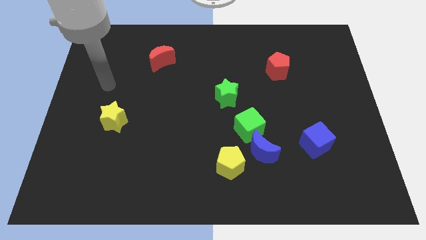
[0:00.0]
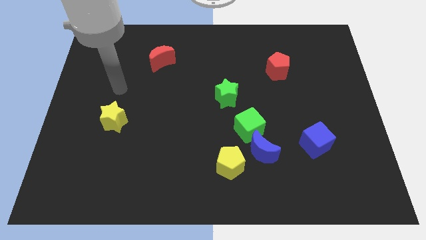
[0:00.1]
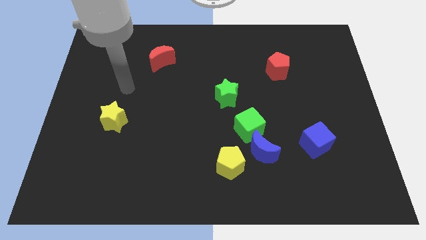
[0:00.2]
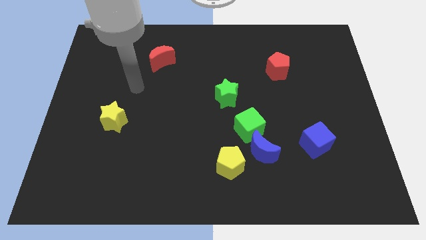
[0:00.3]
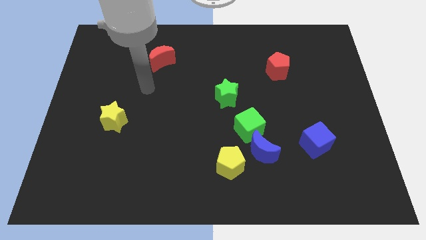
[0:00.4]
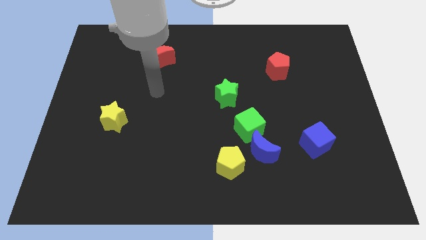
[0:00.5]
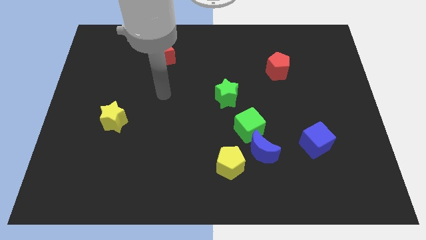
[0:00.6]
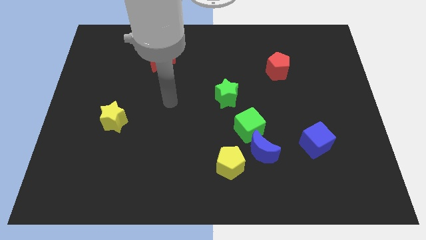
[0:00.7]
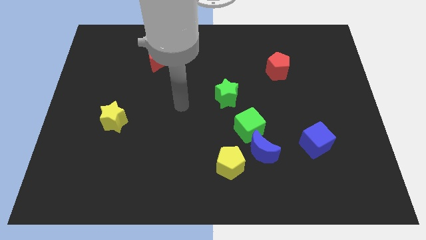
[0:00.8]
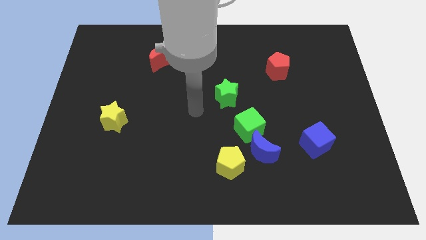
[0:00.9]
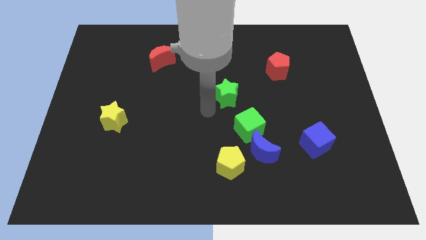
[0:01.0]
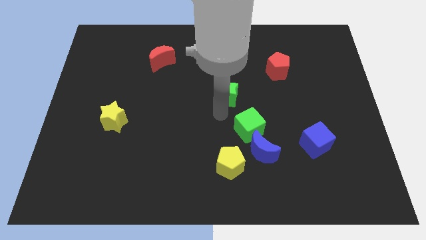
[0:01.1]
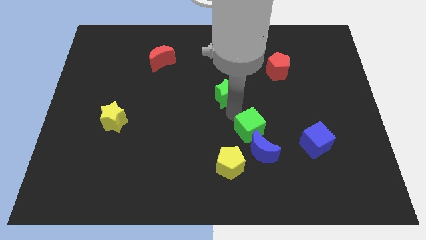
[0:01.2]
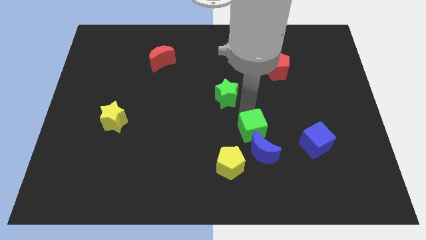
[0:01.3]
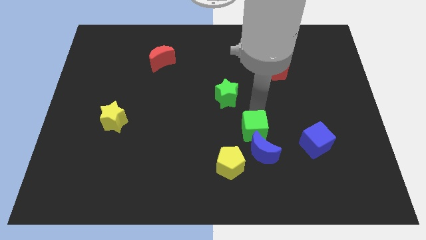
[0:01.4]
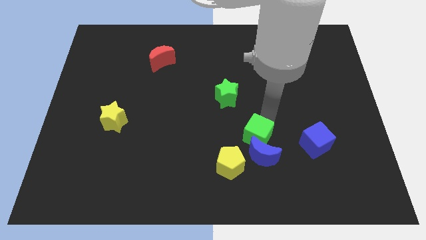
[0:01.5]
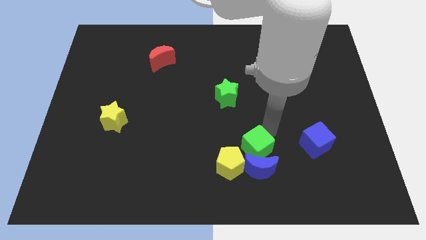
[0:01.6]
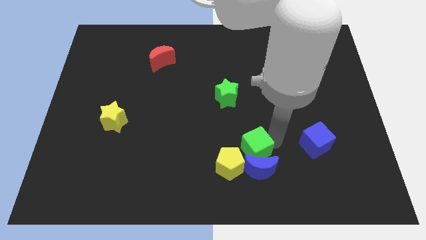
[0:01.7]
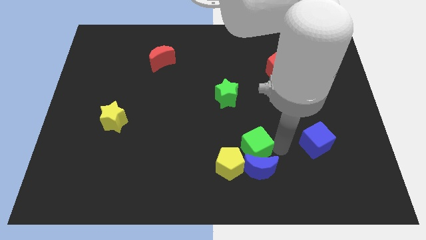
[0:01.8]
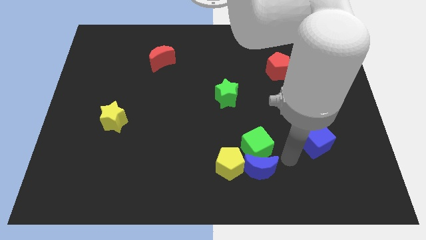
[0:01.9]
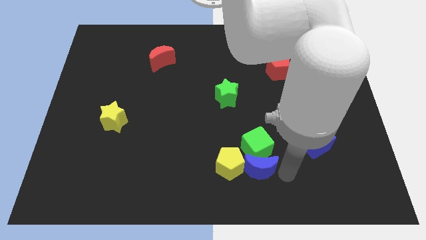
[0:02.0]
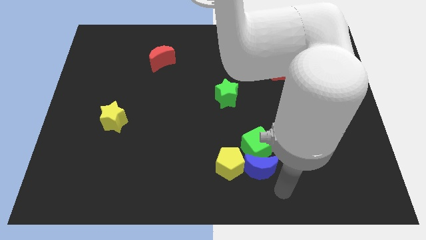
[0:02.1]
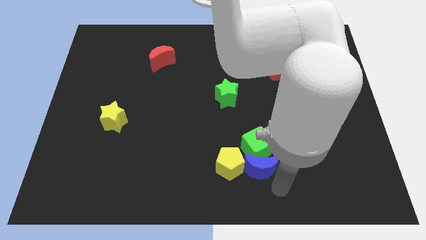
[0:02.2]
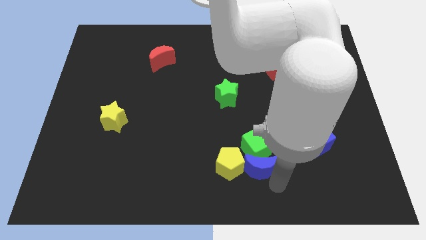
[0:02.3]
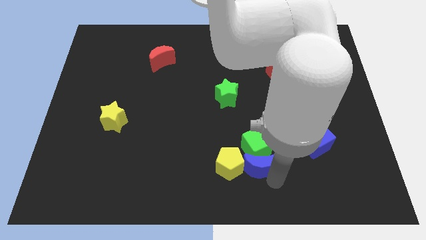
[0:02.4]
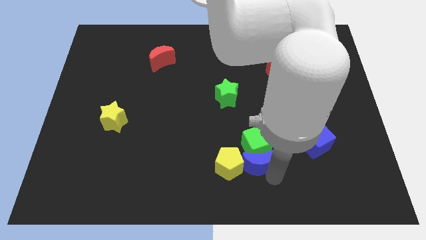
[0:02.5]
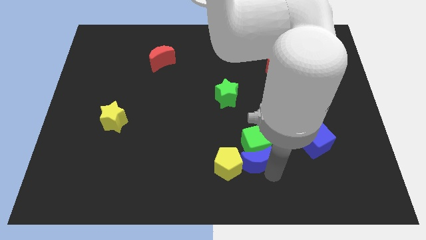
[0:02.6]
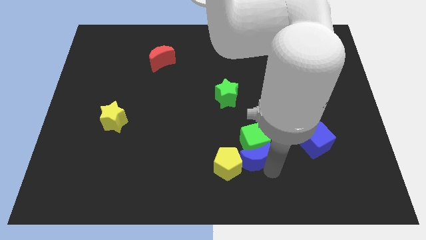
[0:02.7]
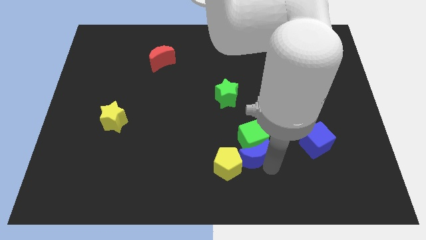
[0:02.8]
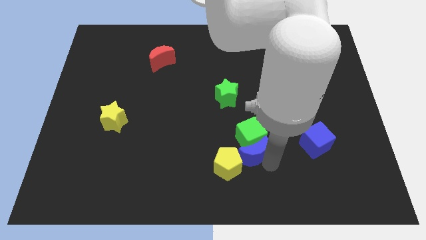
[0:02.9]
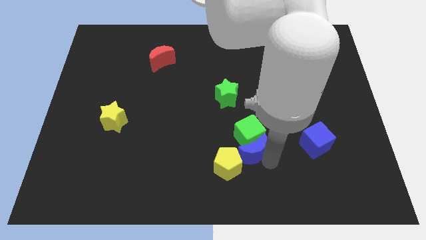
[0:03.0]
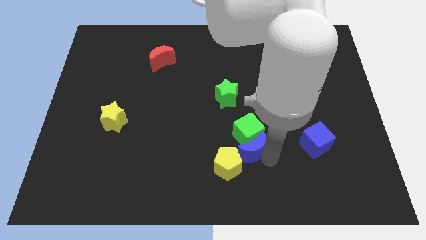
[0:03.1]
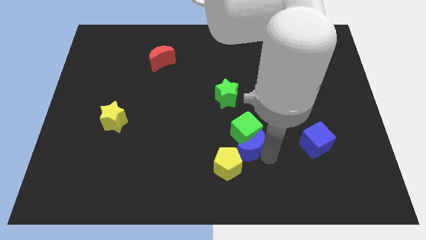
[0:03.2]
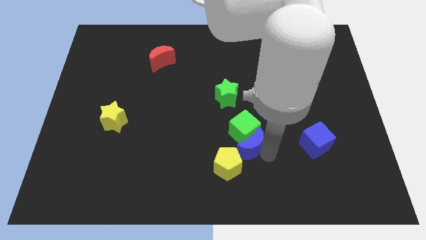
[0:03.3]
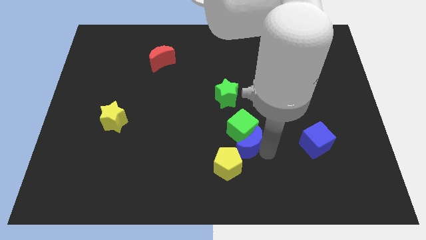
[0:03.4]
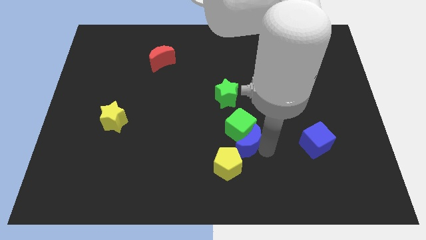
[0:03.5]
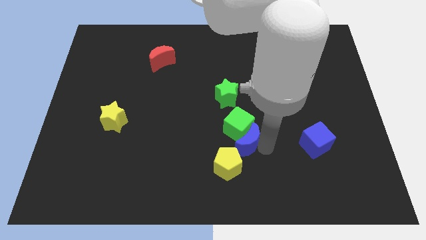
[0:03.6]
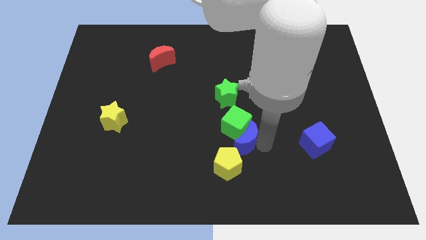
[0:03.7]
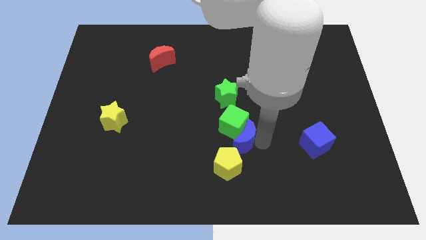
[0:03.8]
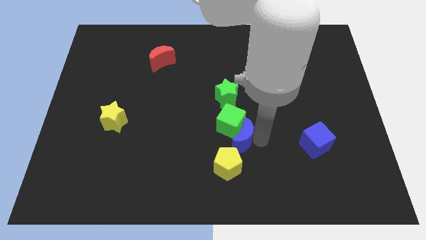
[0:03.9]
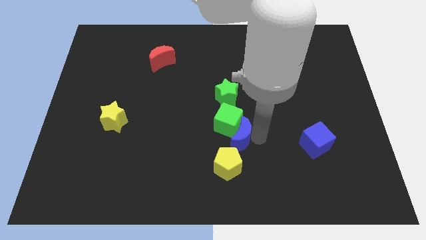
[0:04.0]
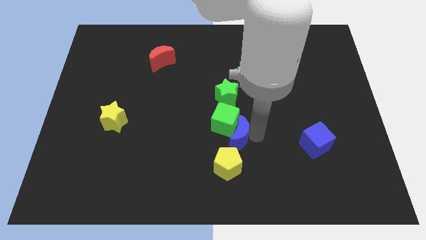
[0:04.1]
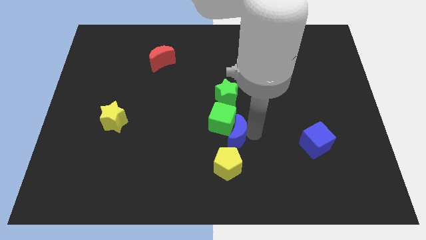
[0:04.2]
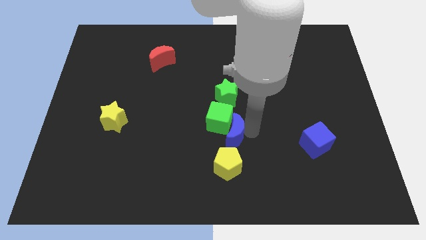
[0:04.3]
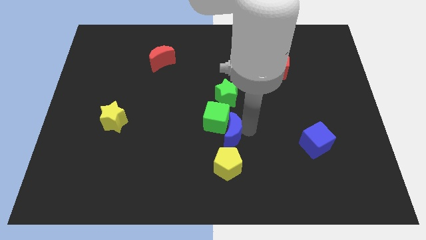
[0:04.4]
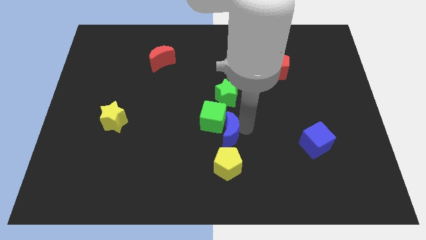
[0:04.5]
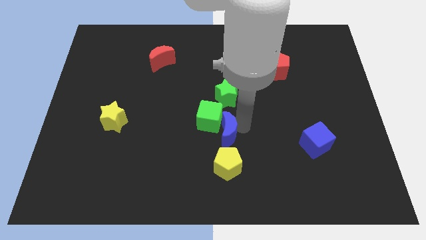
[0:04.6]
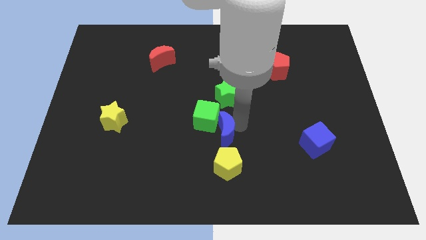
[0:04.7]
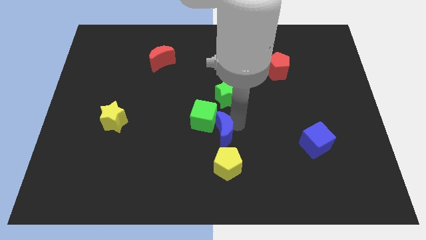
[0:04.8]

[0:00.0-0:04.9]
push the blue moon to the left a little

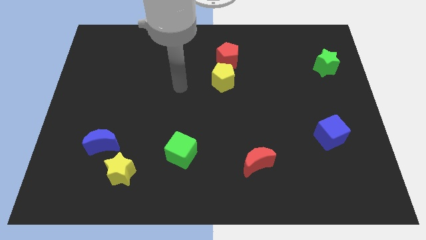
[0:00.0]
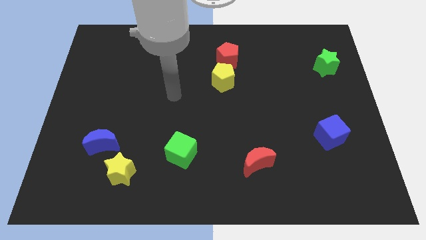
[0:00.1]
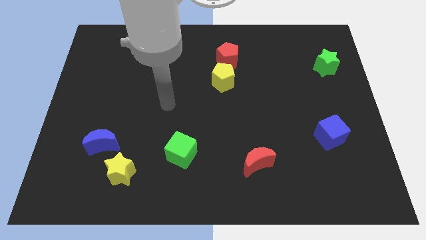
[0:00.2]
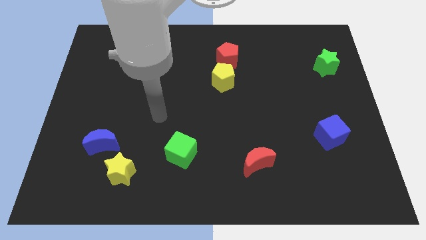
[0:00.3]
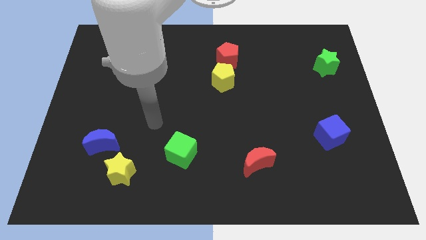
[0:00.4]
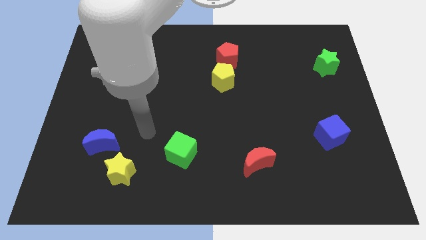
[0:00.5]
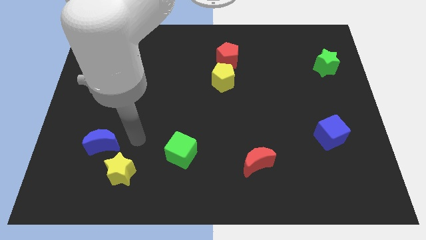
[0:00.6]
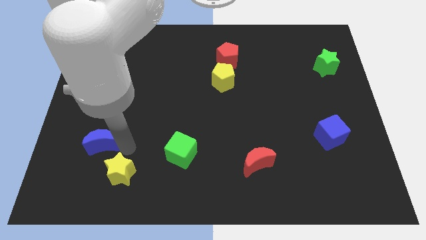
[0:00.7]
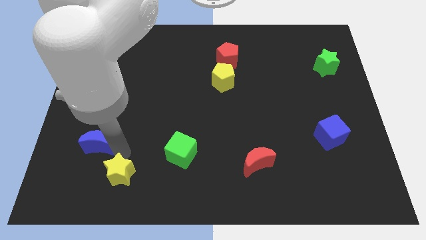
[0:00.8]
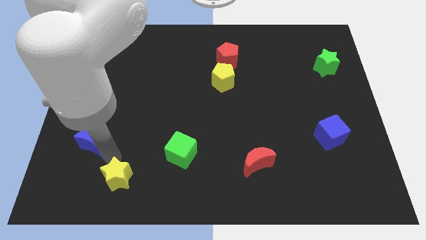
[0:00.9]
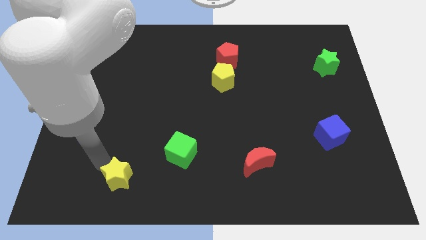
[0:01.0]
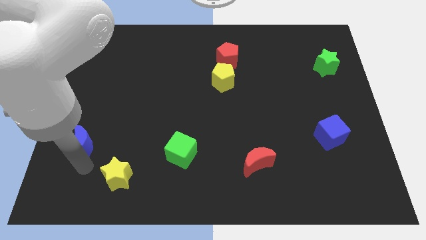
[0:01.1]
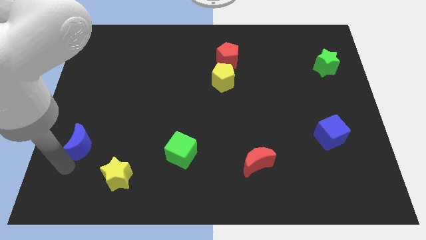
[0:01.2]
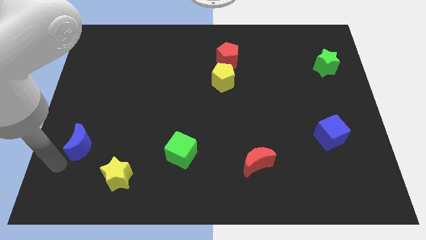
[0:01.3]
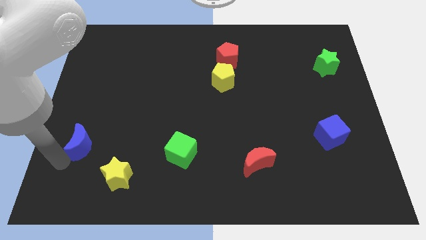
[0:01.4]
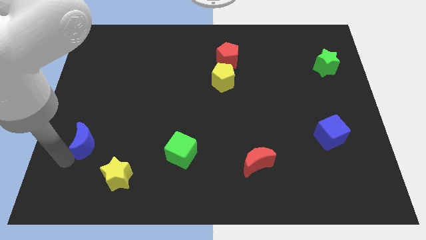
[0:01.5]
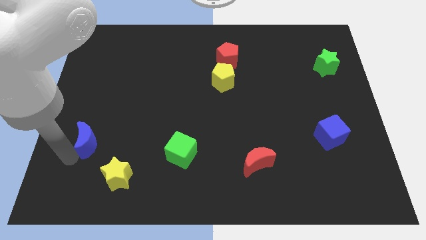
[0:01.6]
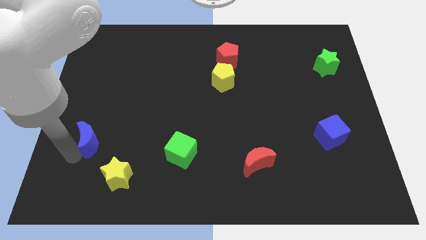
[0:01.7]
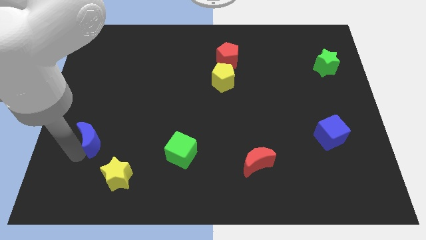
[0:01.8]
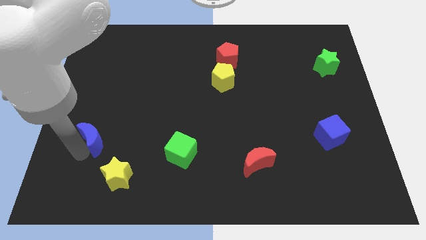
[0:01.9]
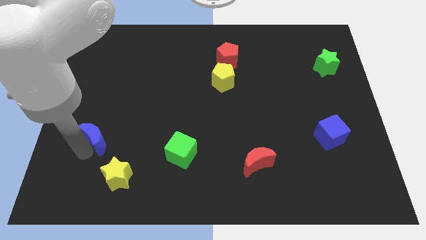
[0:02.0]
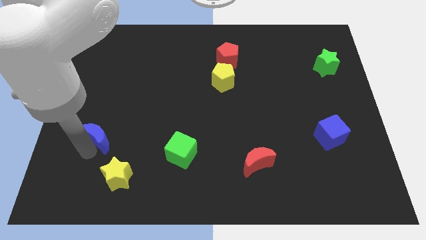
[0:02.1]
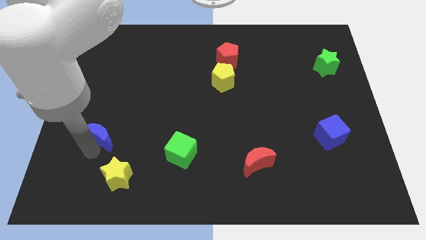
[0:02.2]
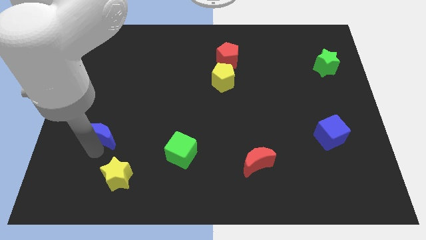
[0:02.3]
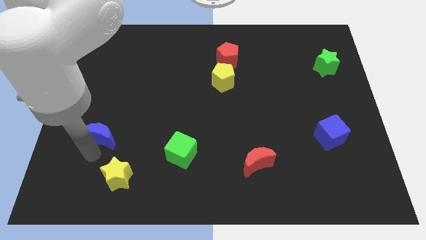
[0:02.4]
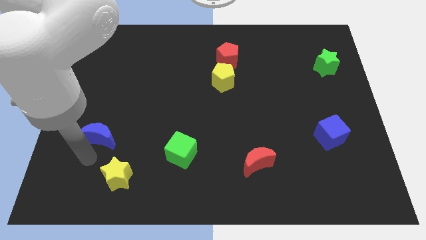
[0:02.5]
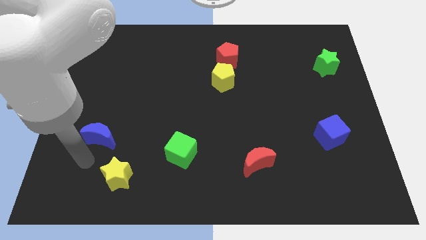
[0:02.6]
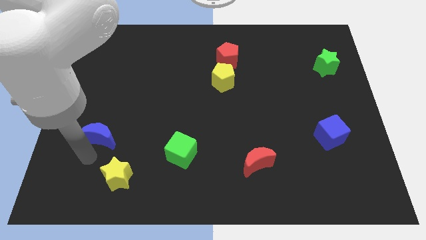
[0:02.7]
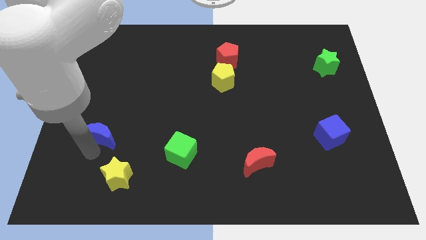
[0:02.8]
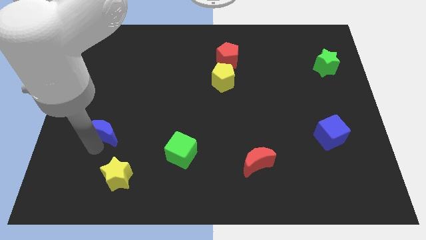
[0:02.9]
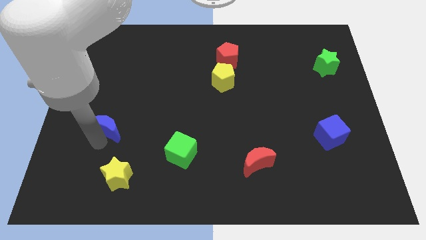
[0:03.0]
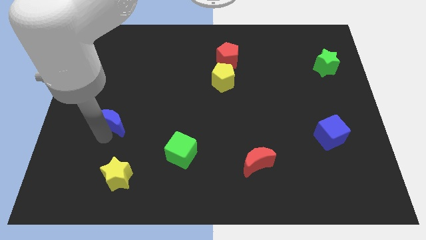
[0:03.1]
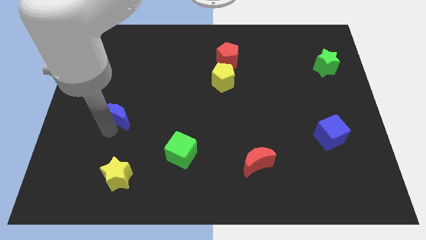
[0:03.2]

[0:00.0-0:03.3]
slide the blue moon upwards somewhat
